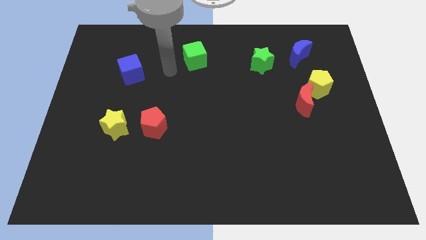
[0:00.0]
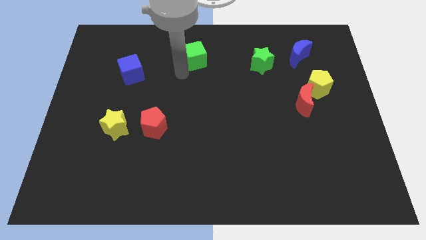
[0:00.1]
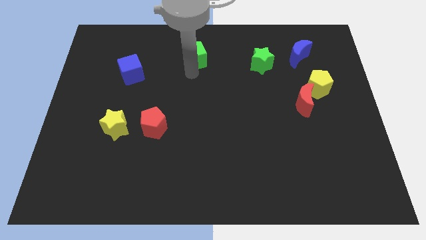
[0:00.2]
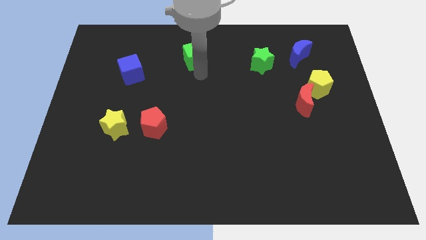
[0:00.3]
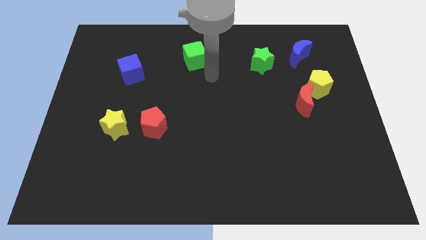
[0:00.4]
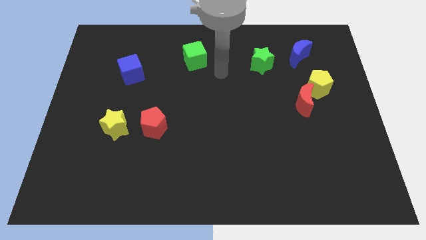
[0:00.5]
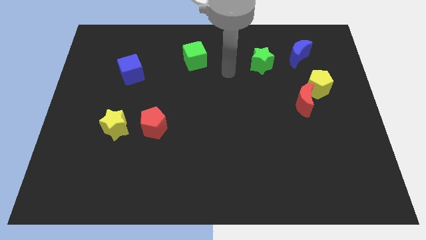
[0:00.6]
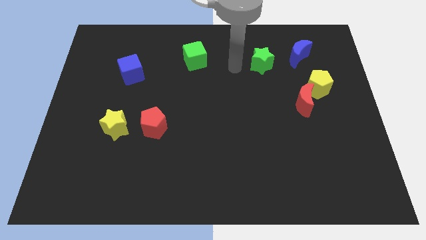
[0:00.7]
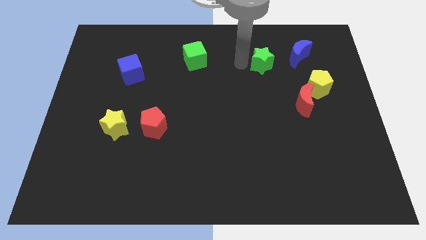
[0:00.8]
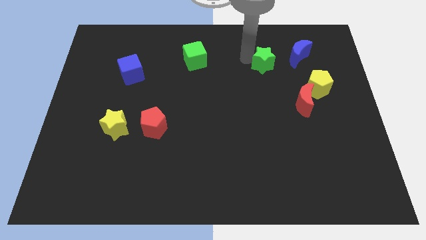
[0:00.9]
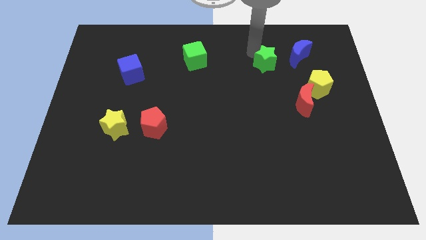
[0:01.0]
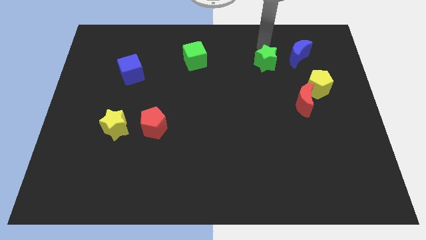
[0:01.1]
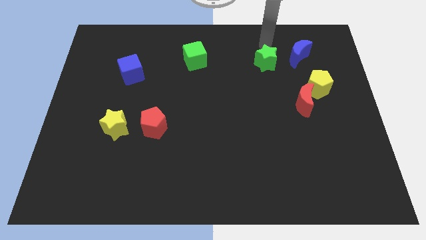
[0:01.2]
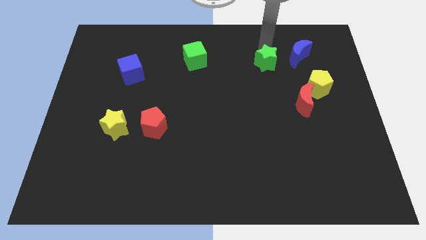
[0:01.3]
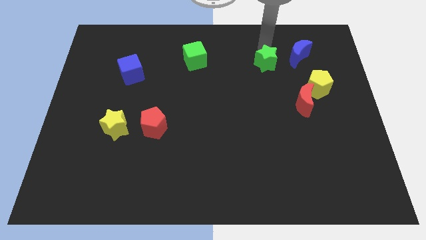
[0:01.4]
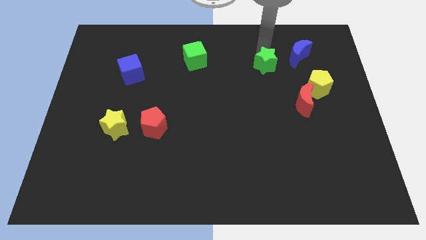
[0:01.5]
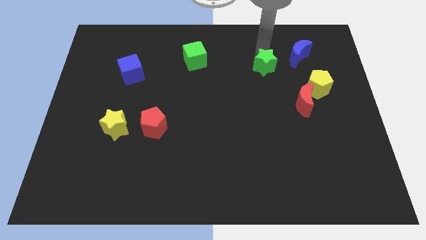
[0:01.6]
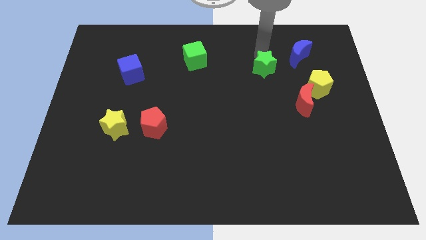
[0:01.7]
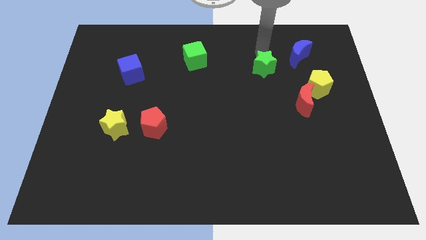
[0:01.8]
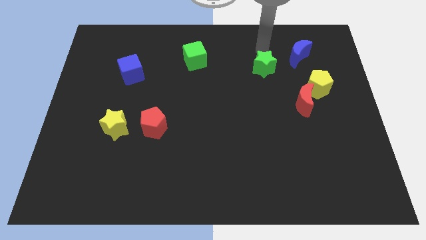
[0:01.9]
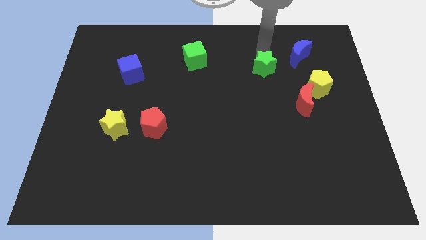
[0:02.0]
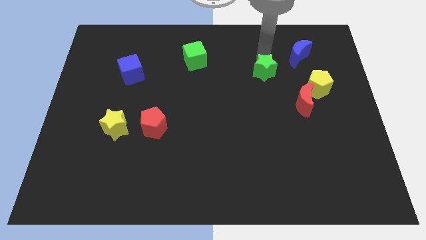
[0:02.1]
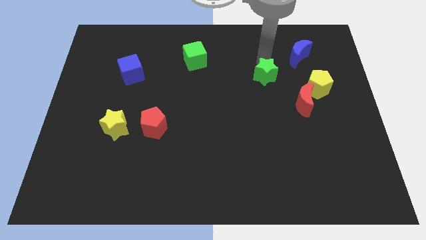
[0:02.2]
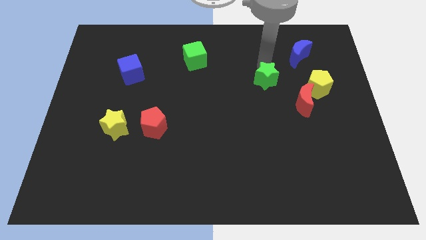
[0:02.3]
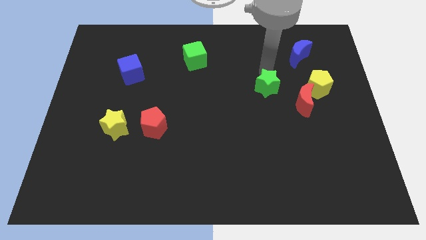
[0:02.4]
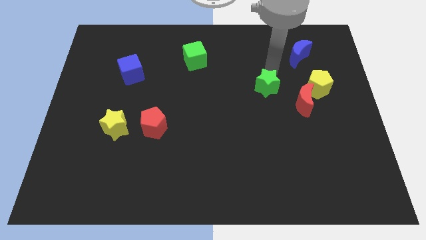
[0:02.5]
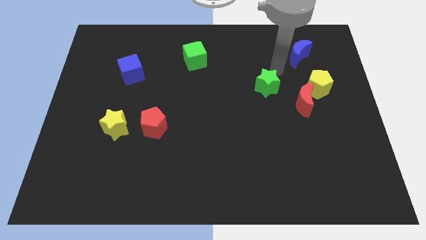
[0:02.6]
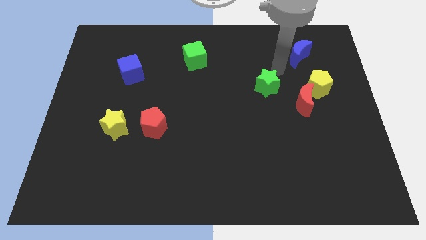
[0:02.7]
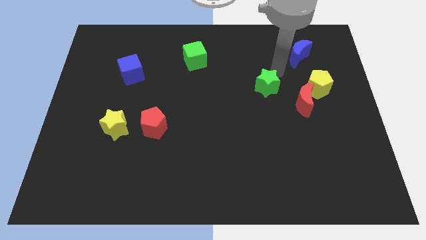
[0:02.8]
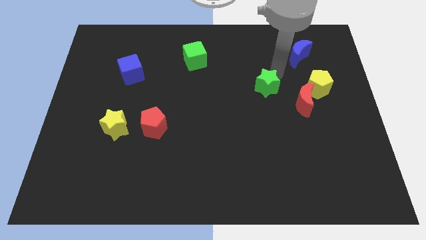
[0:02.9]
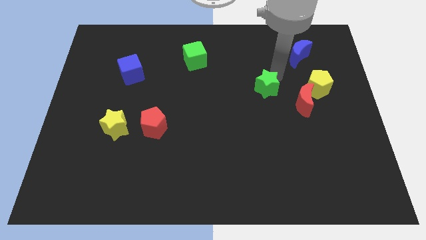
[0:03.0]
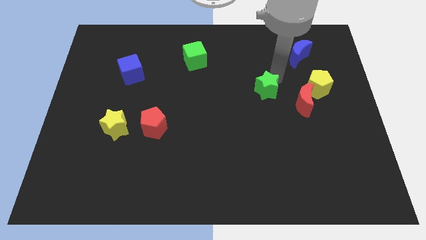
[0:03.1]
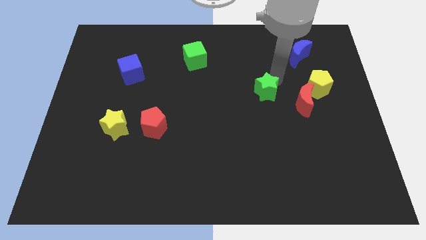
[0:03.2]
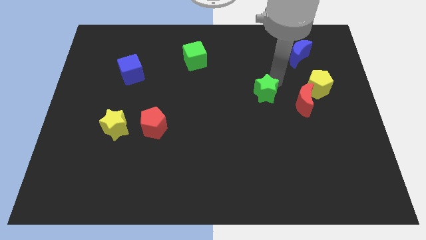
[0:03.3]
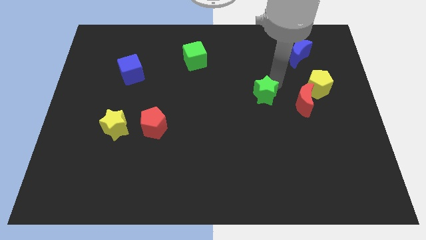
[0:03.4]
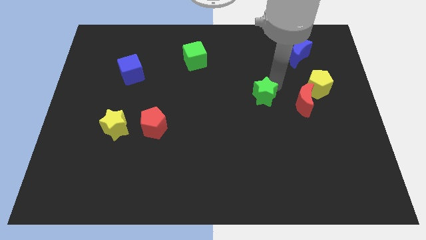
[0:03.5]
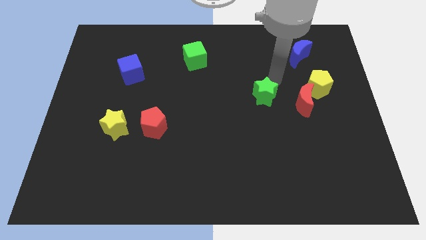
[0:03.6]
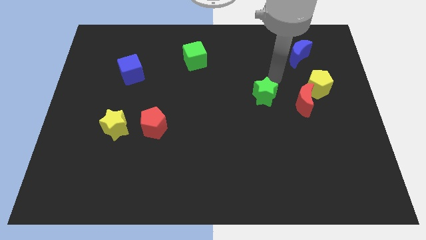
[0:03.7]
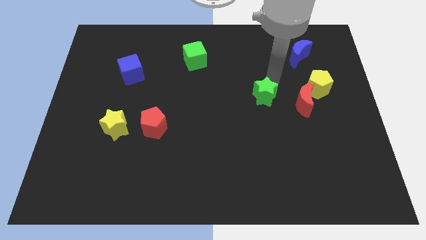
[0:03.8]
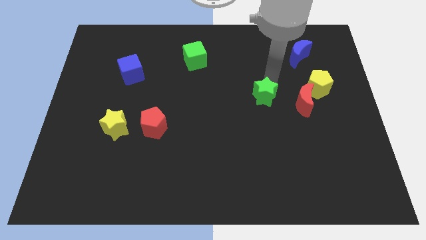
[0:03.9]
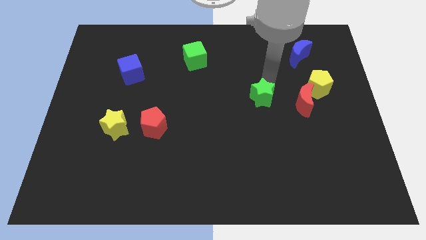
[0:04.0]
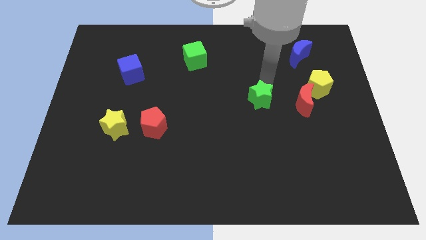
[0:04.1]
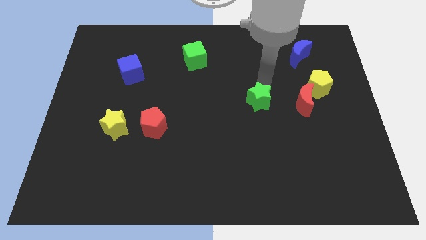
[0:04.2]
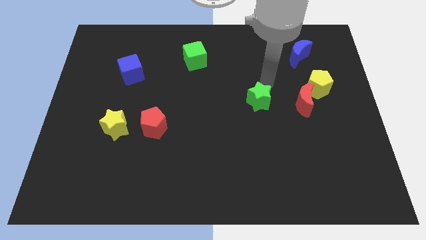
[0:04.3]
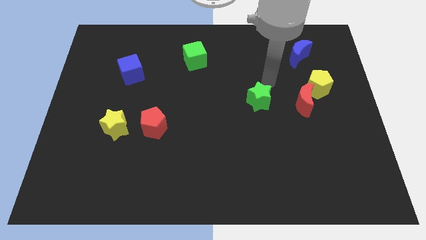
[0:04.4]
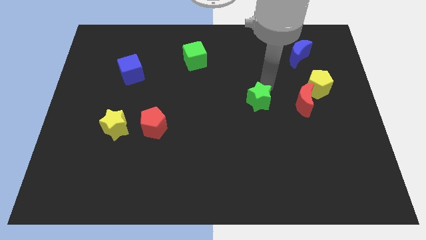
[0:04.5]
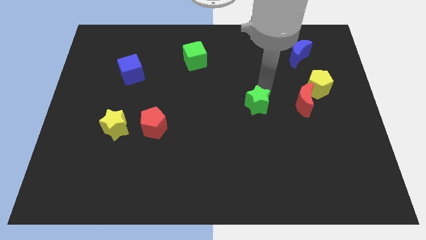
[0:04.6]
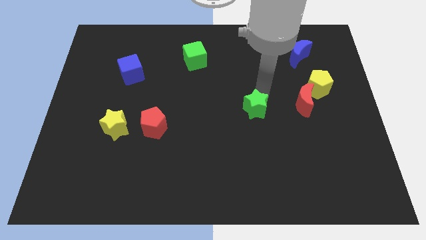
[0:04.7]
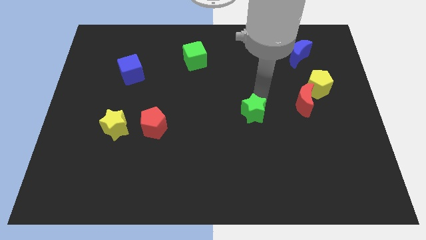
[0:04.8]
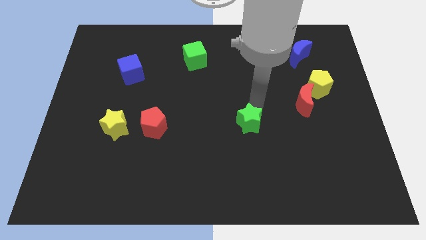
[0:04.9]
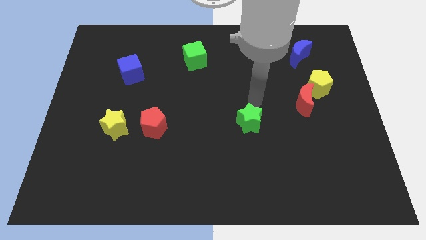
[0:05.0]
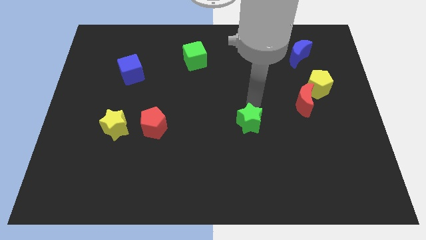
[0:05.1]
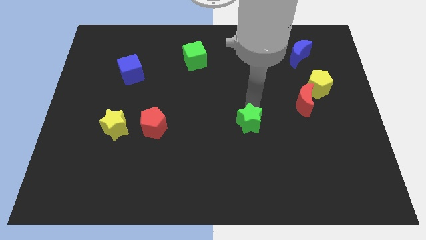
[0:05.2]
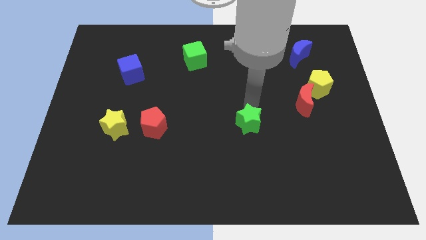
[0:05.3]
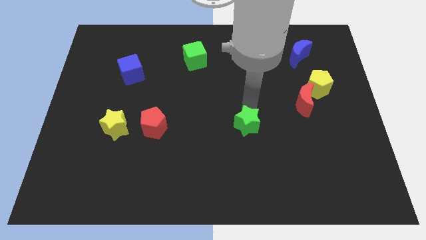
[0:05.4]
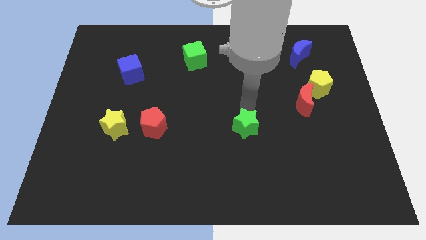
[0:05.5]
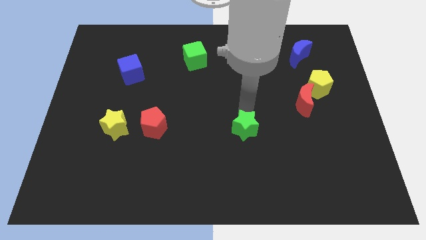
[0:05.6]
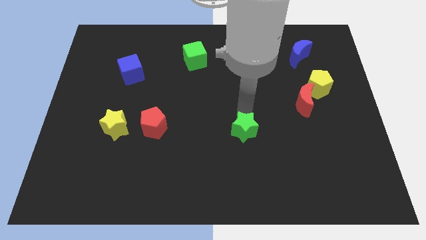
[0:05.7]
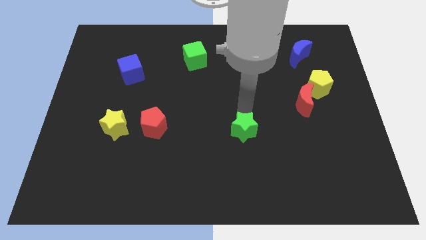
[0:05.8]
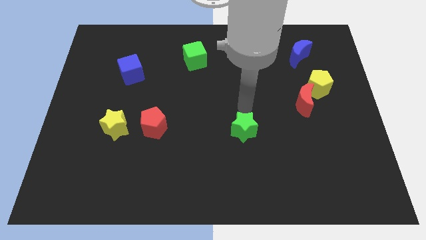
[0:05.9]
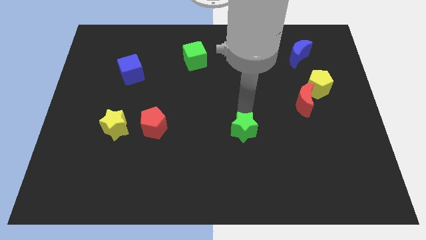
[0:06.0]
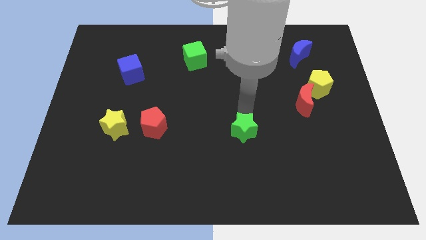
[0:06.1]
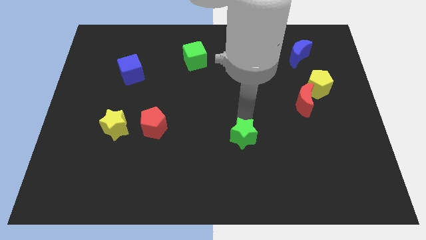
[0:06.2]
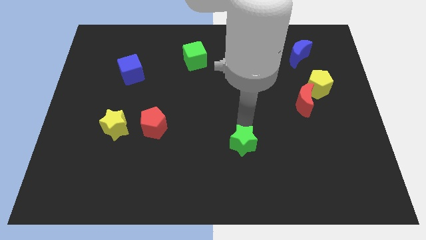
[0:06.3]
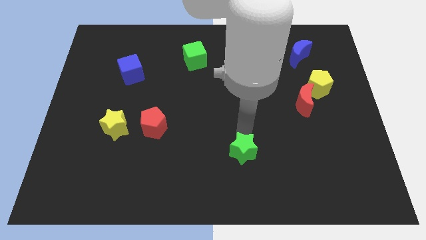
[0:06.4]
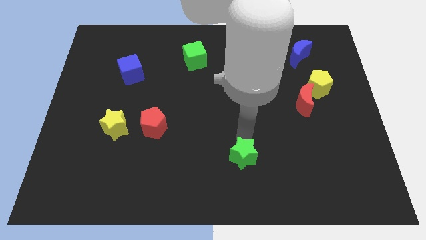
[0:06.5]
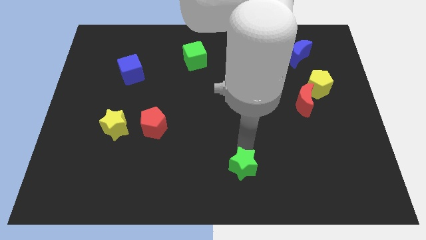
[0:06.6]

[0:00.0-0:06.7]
move the green star to the bottom
